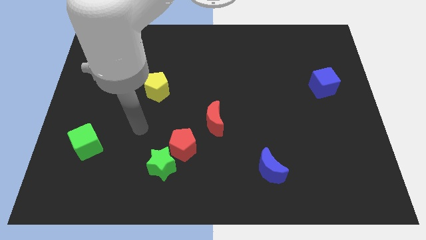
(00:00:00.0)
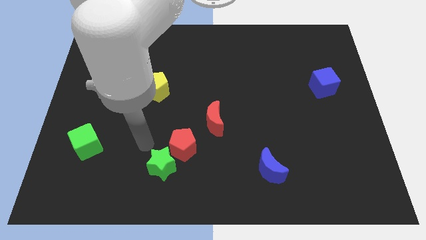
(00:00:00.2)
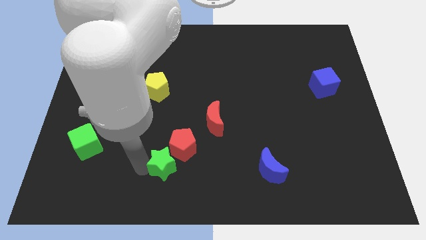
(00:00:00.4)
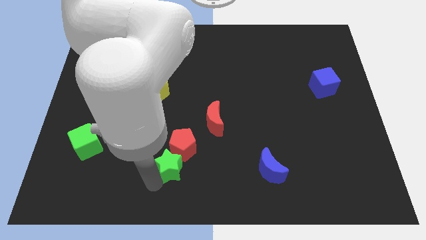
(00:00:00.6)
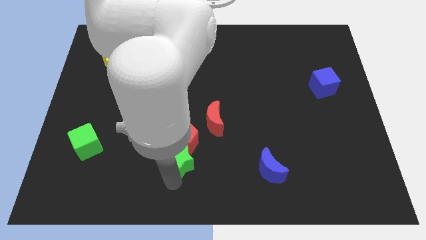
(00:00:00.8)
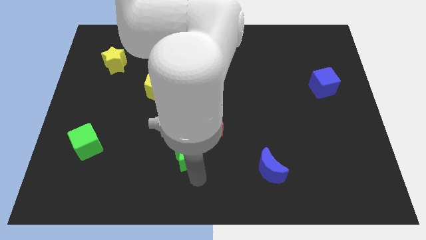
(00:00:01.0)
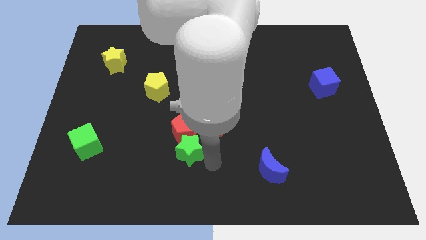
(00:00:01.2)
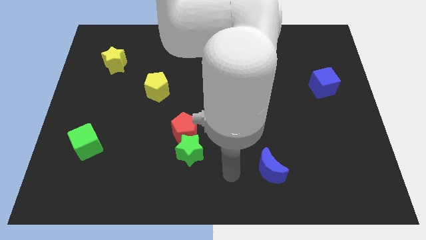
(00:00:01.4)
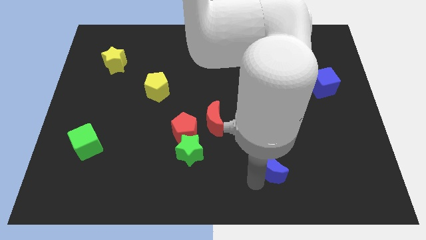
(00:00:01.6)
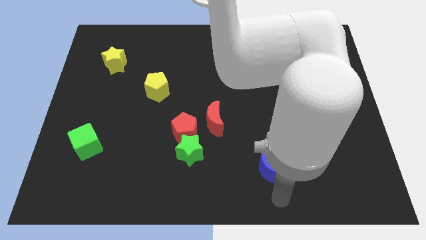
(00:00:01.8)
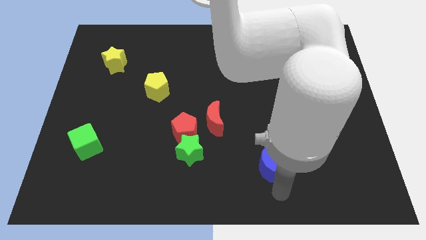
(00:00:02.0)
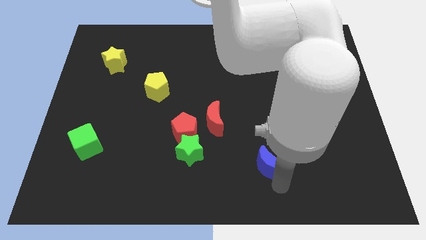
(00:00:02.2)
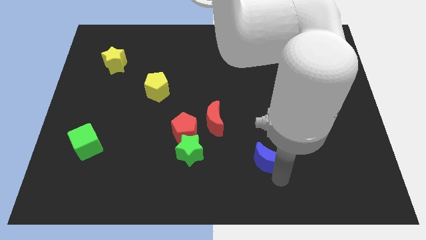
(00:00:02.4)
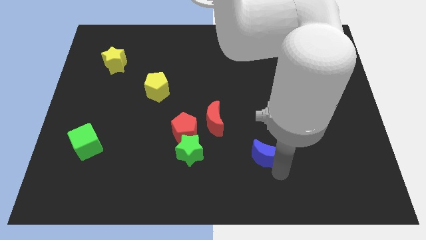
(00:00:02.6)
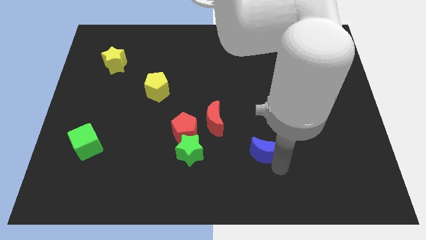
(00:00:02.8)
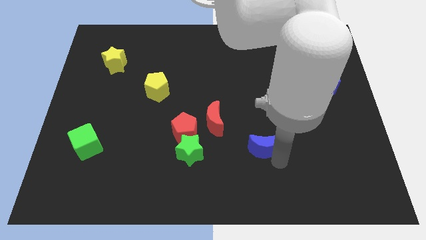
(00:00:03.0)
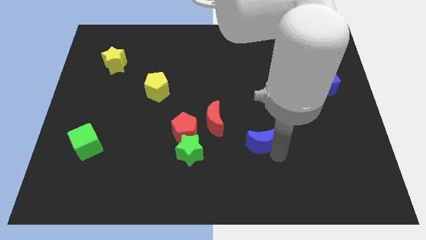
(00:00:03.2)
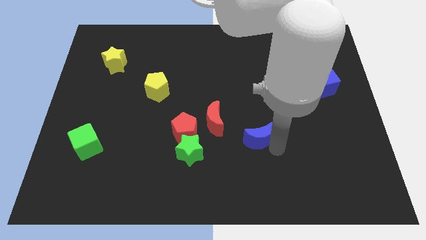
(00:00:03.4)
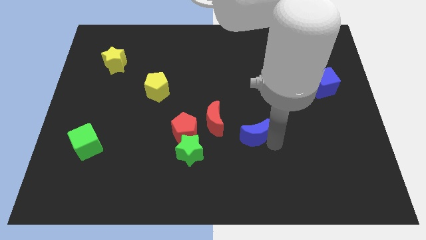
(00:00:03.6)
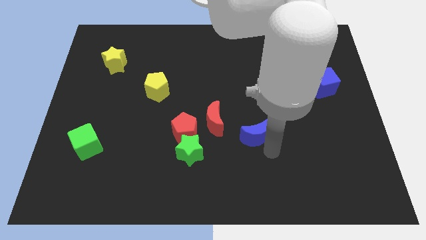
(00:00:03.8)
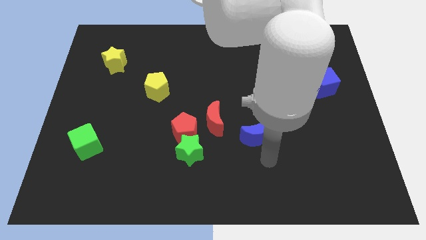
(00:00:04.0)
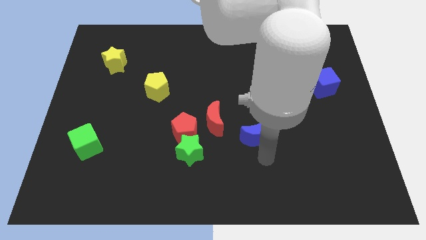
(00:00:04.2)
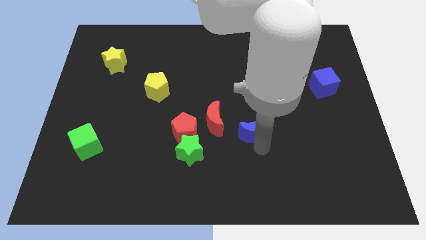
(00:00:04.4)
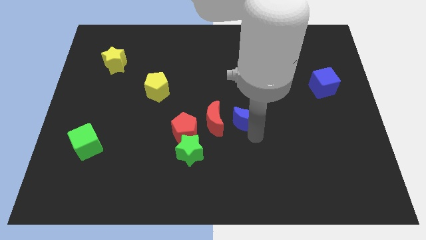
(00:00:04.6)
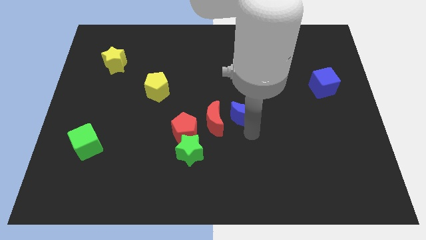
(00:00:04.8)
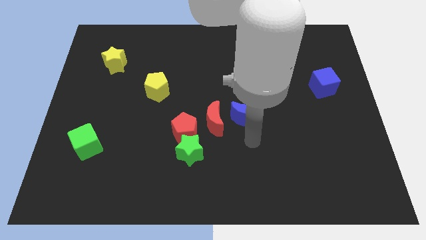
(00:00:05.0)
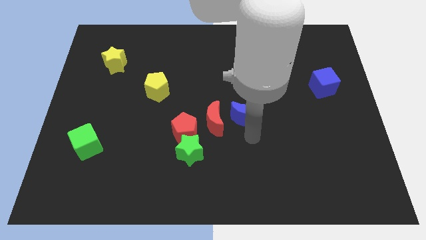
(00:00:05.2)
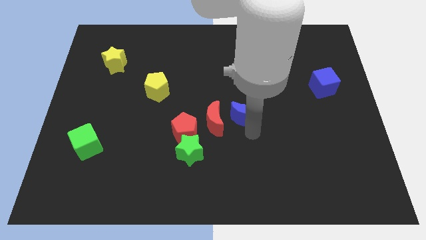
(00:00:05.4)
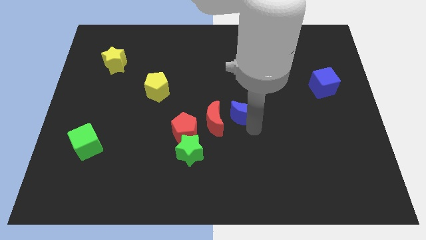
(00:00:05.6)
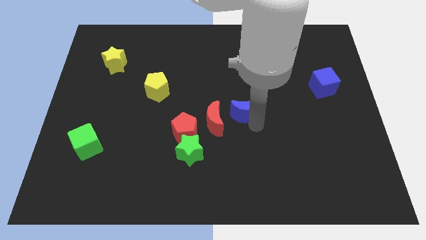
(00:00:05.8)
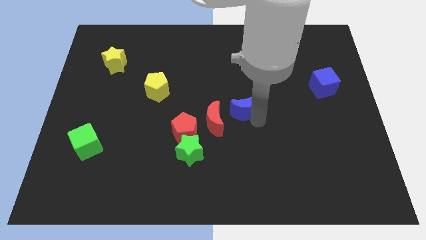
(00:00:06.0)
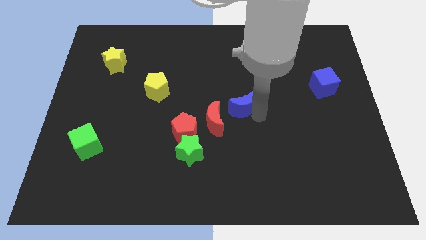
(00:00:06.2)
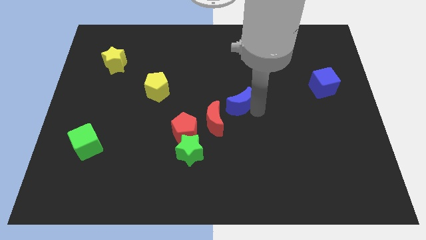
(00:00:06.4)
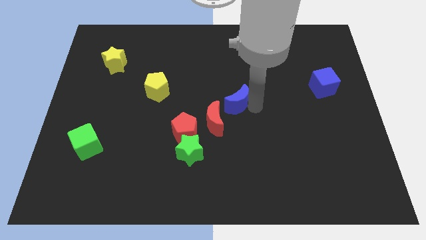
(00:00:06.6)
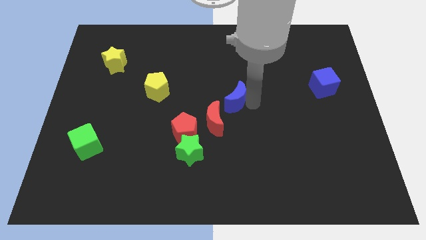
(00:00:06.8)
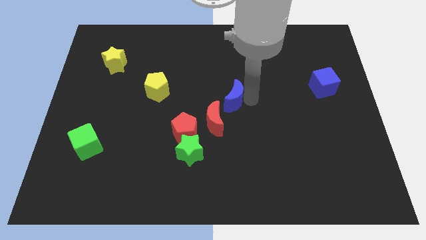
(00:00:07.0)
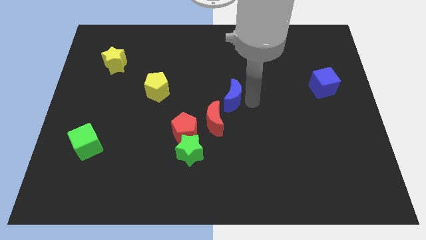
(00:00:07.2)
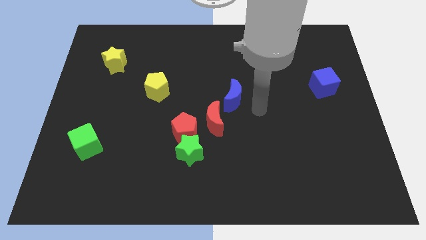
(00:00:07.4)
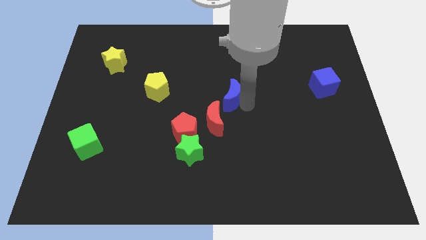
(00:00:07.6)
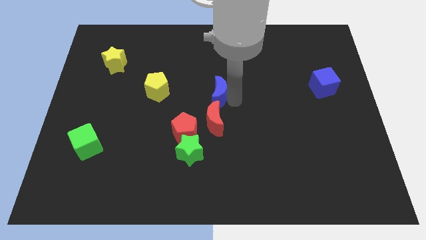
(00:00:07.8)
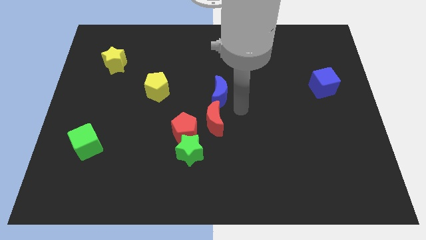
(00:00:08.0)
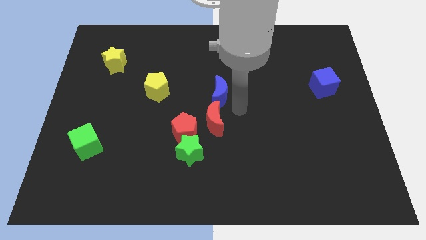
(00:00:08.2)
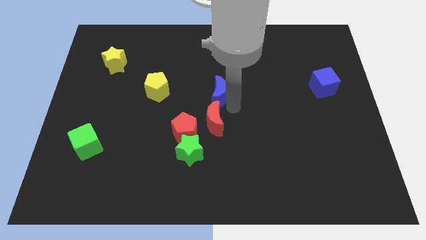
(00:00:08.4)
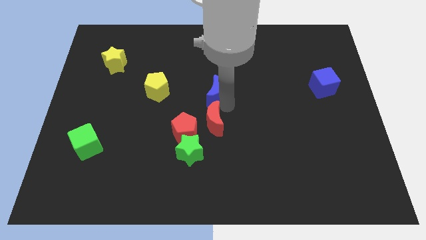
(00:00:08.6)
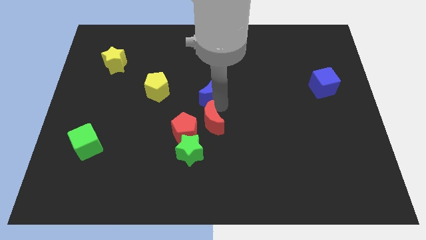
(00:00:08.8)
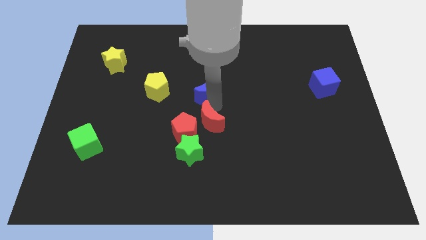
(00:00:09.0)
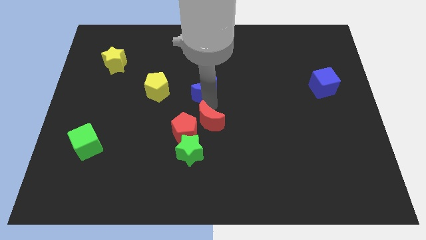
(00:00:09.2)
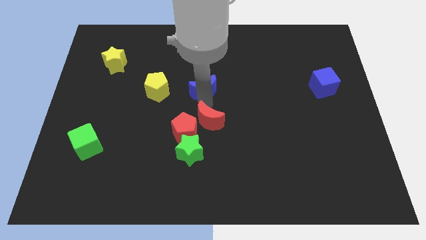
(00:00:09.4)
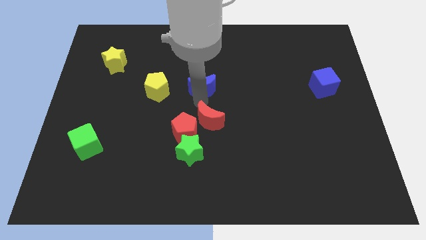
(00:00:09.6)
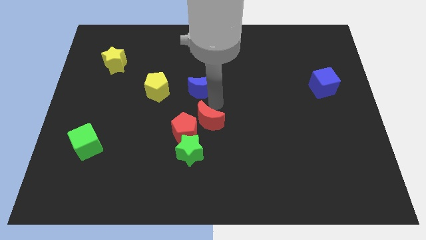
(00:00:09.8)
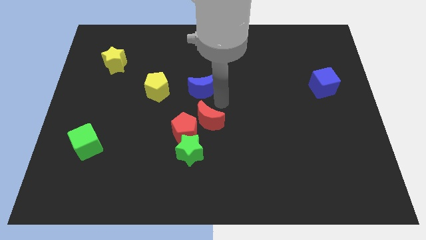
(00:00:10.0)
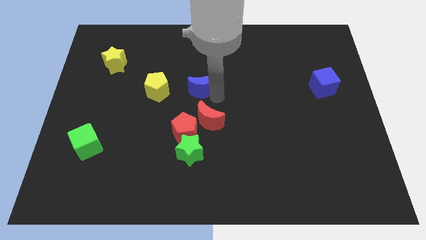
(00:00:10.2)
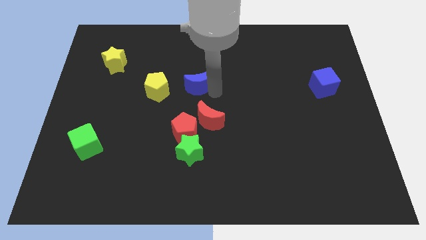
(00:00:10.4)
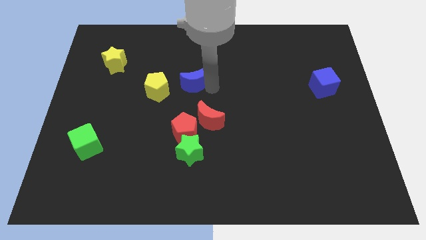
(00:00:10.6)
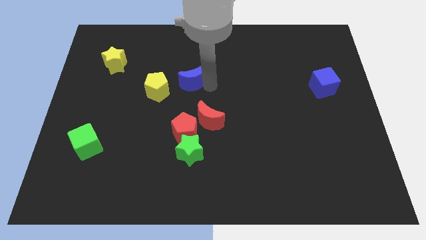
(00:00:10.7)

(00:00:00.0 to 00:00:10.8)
put the blue moon diagonally up and to the right of the yellow pentagon

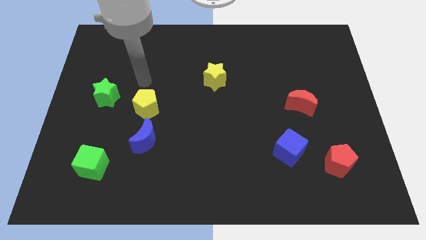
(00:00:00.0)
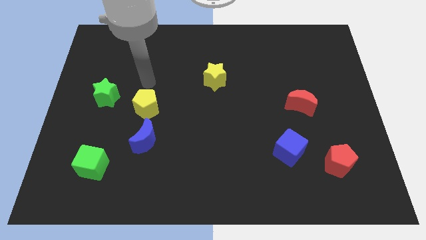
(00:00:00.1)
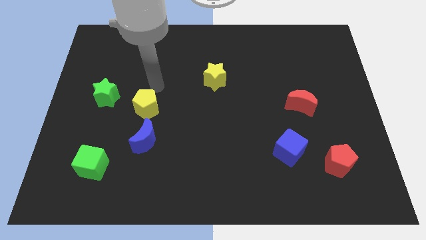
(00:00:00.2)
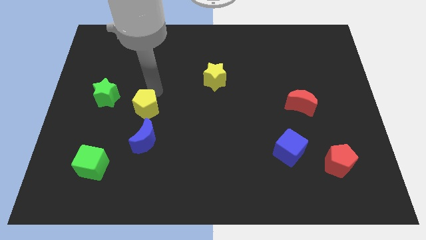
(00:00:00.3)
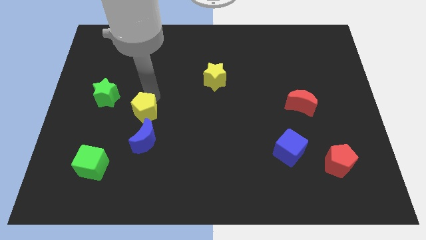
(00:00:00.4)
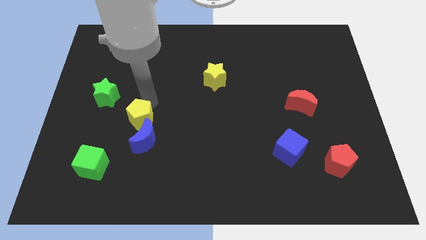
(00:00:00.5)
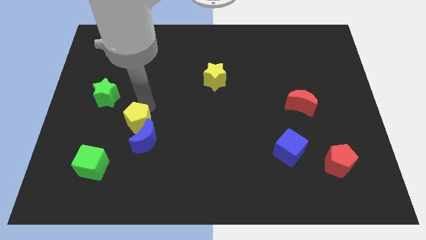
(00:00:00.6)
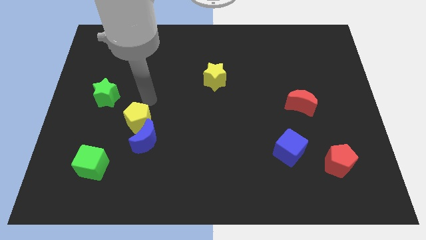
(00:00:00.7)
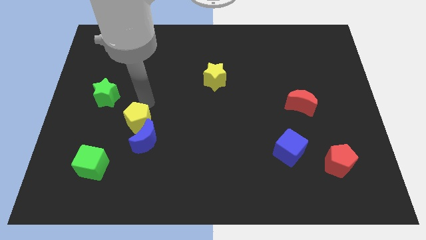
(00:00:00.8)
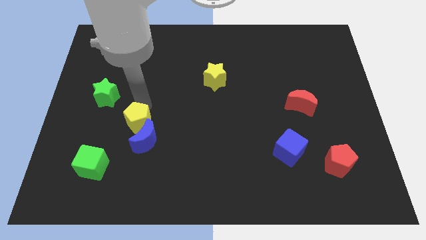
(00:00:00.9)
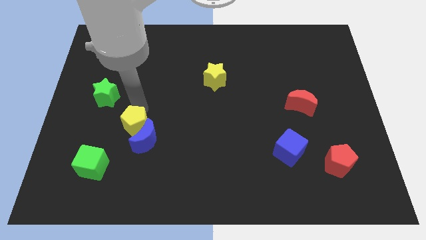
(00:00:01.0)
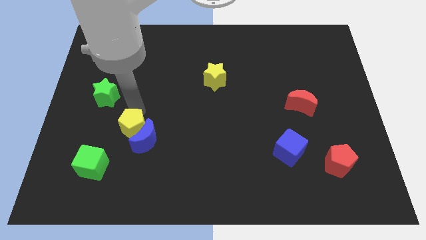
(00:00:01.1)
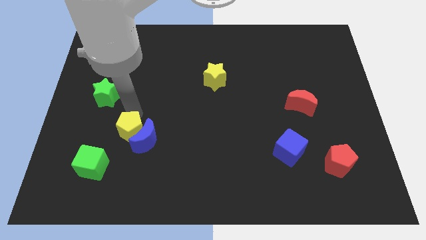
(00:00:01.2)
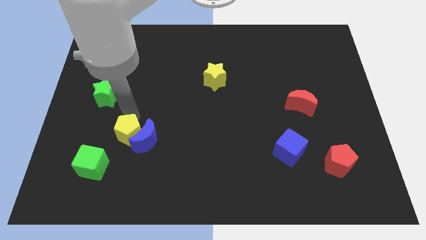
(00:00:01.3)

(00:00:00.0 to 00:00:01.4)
put the yellow pentagon to the bottom left of the blue moon
